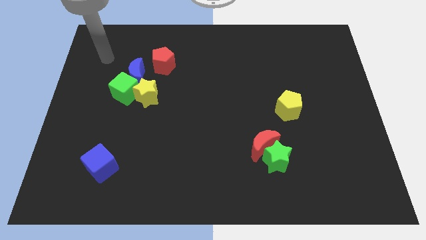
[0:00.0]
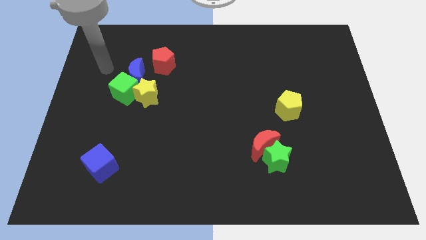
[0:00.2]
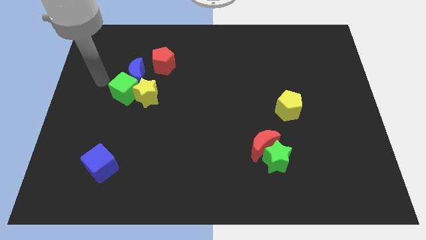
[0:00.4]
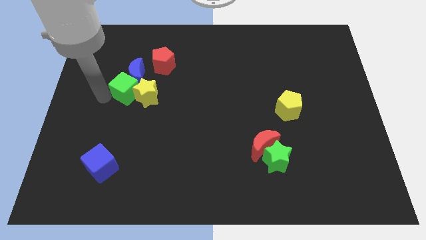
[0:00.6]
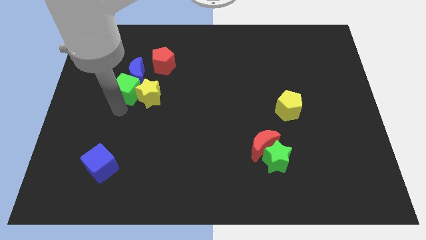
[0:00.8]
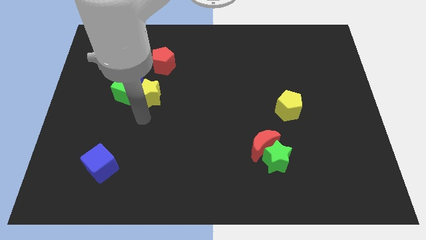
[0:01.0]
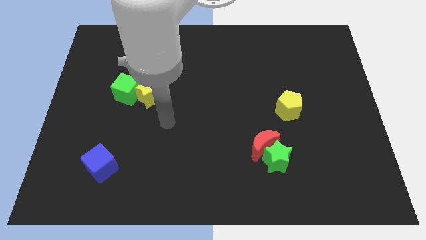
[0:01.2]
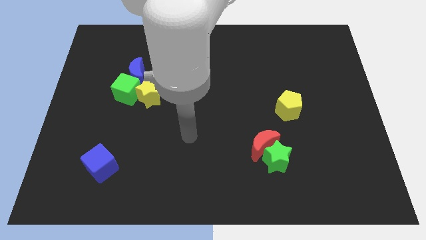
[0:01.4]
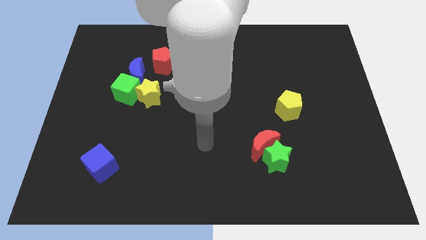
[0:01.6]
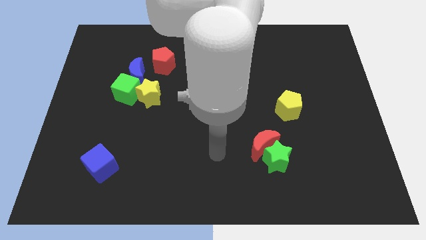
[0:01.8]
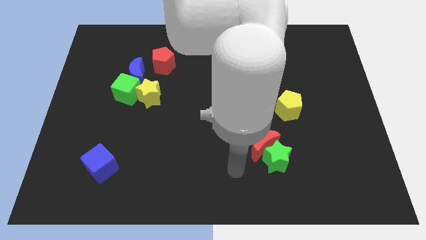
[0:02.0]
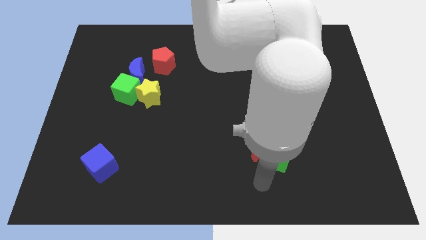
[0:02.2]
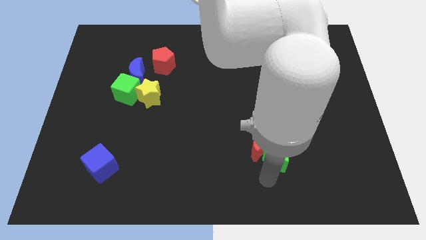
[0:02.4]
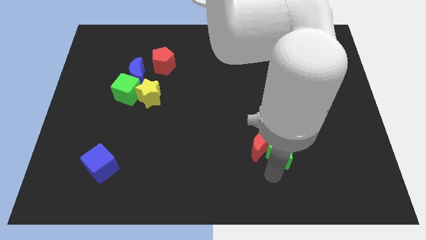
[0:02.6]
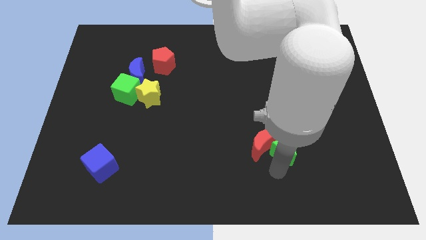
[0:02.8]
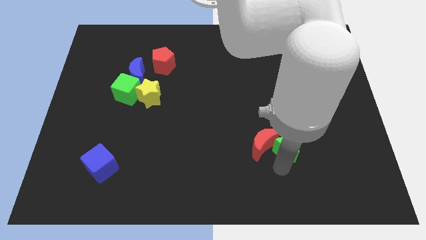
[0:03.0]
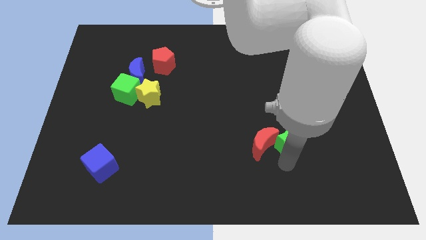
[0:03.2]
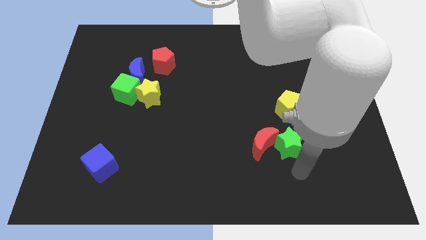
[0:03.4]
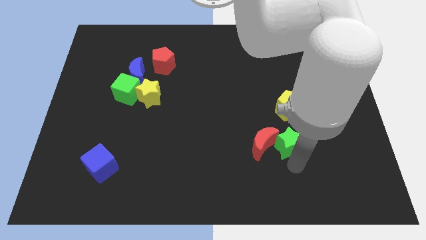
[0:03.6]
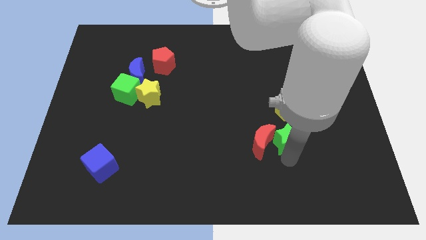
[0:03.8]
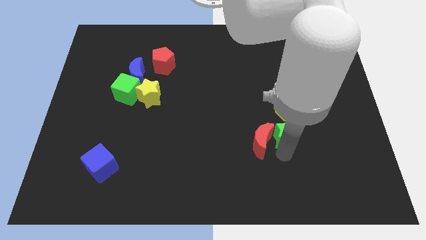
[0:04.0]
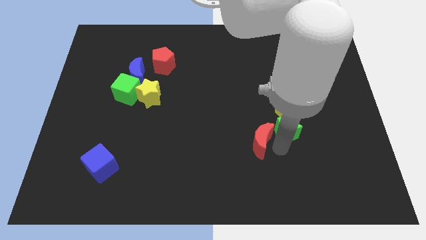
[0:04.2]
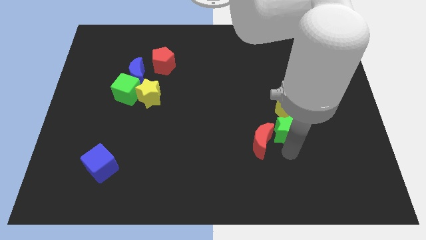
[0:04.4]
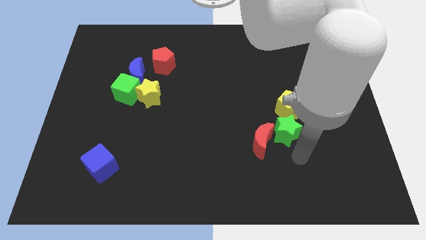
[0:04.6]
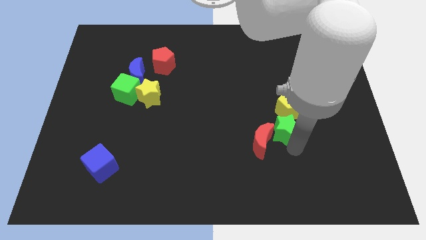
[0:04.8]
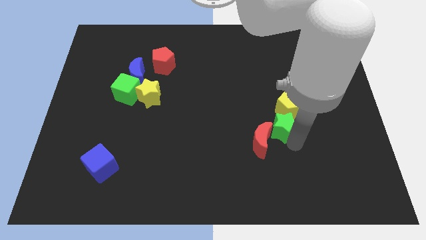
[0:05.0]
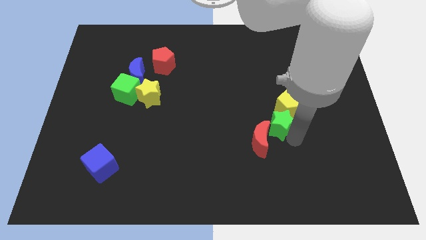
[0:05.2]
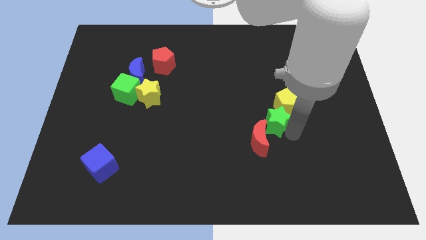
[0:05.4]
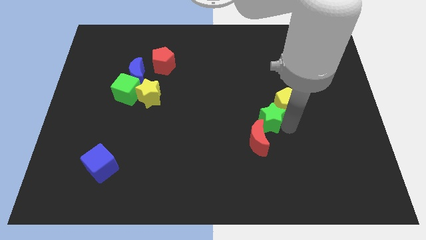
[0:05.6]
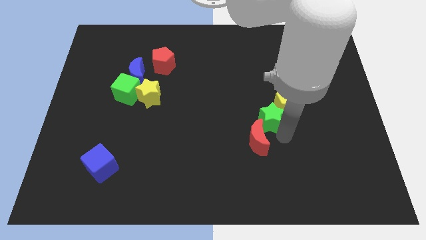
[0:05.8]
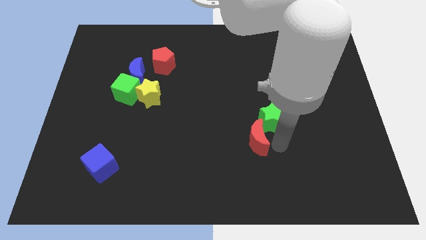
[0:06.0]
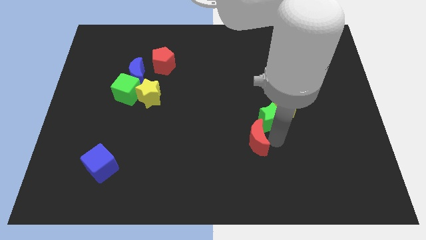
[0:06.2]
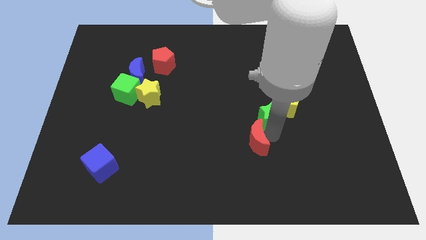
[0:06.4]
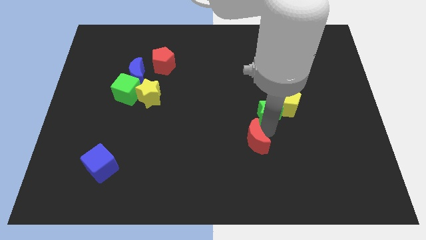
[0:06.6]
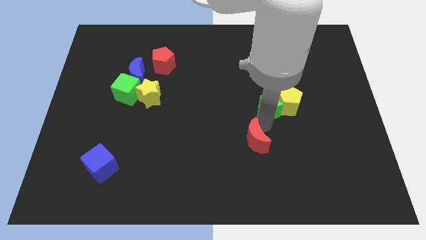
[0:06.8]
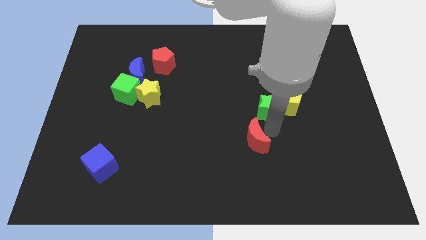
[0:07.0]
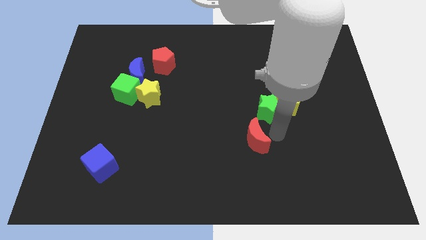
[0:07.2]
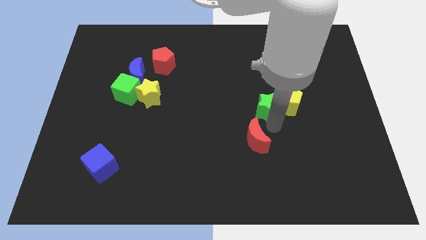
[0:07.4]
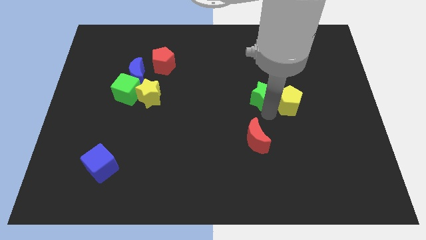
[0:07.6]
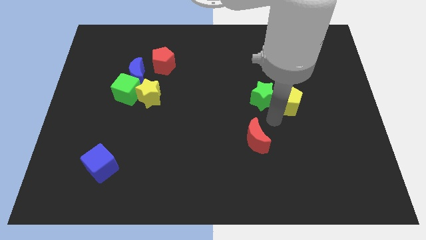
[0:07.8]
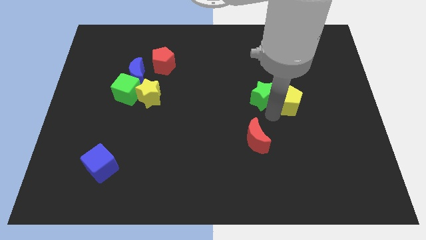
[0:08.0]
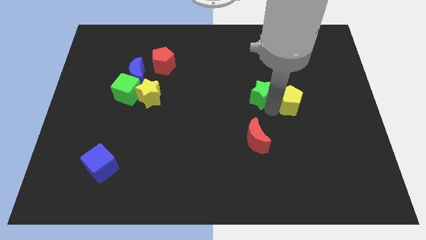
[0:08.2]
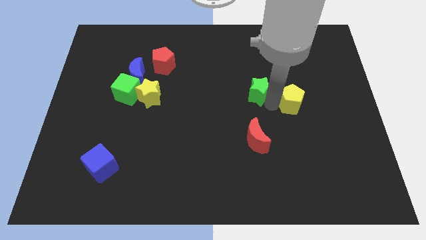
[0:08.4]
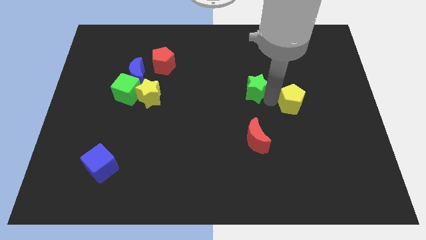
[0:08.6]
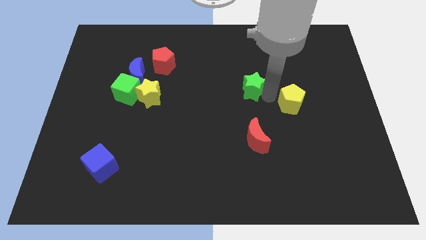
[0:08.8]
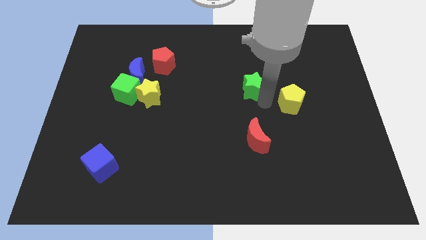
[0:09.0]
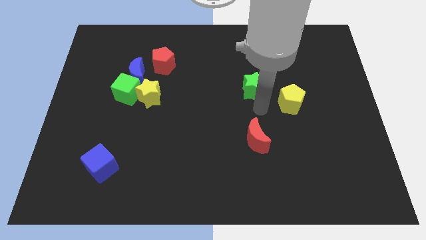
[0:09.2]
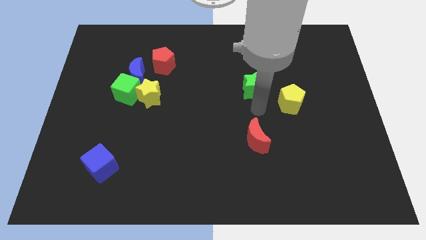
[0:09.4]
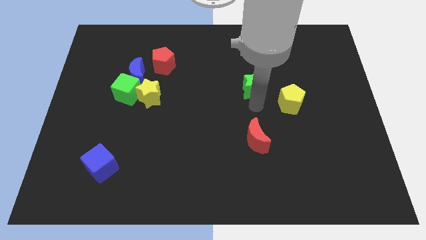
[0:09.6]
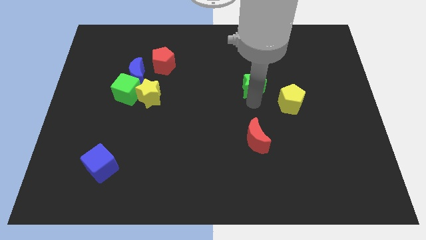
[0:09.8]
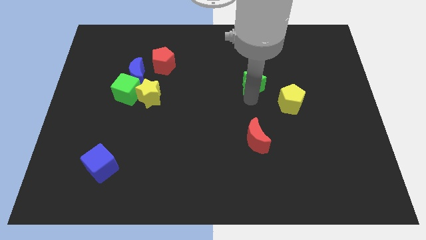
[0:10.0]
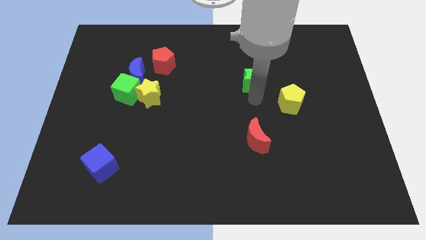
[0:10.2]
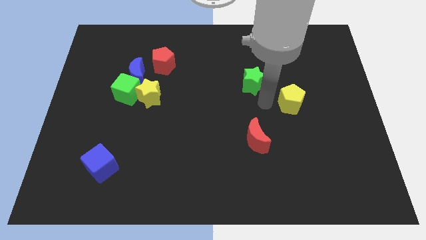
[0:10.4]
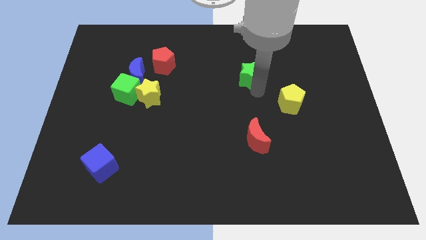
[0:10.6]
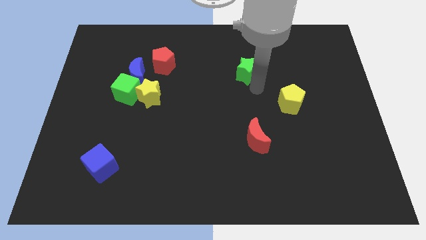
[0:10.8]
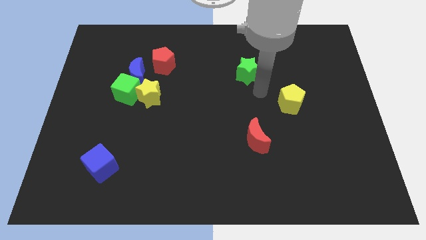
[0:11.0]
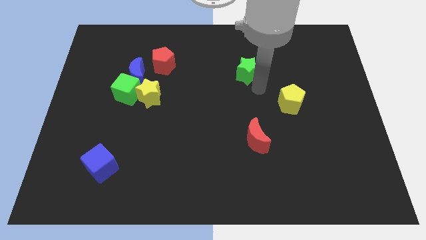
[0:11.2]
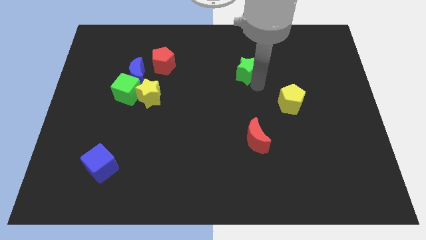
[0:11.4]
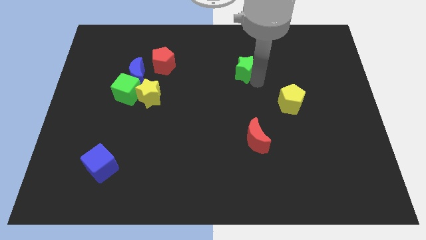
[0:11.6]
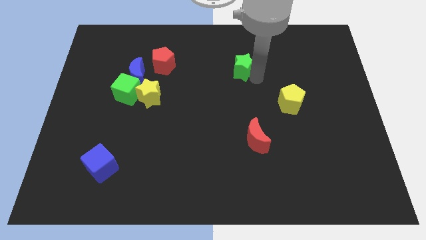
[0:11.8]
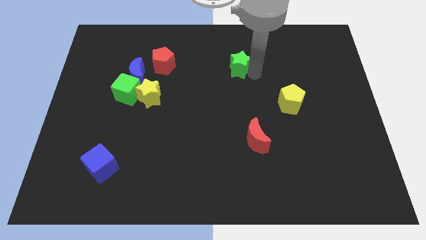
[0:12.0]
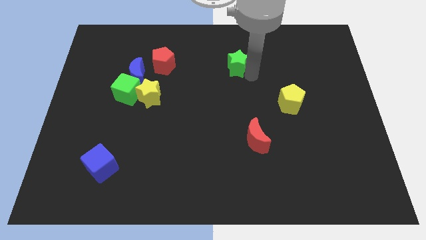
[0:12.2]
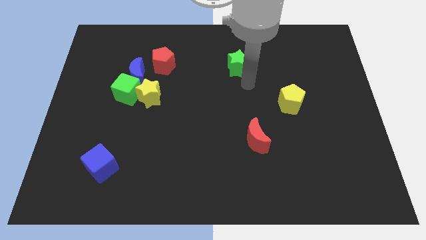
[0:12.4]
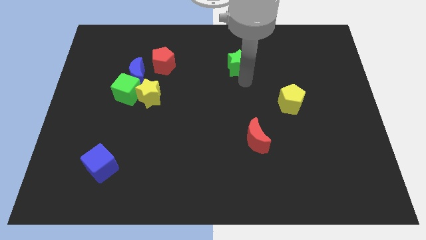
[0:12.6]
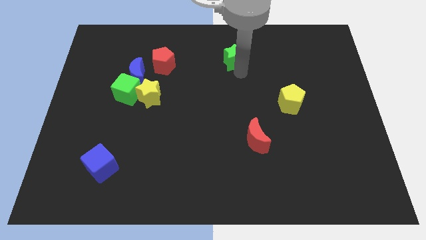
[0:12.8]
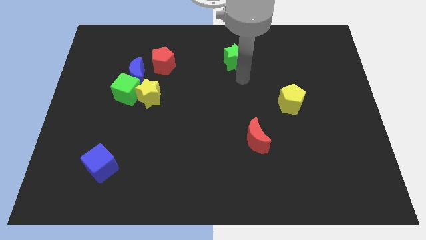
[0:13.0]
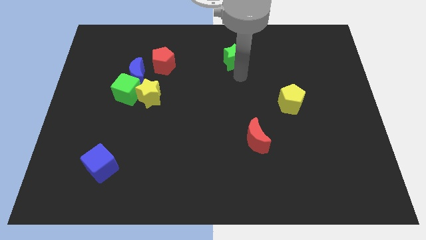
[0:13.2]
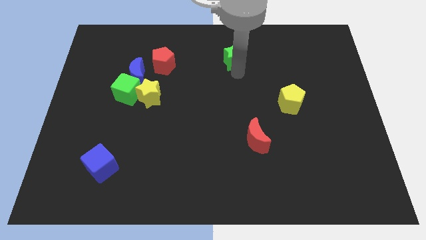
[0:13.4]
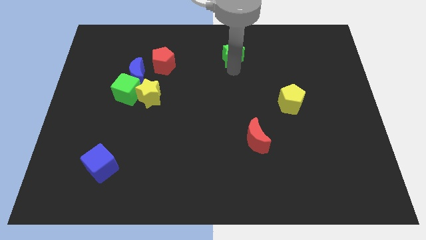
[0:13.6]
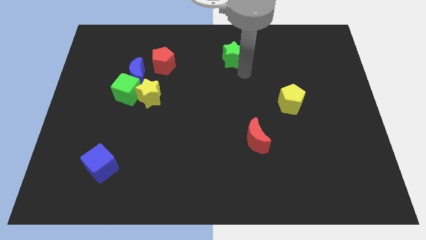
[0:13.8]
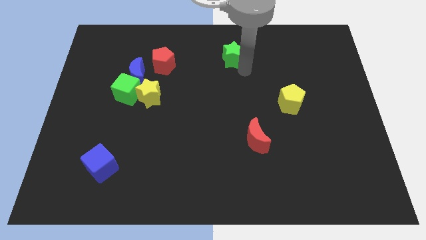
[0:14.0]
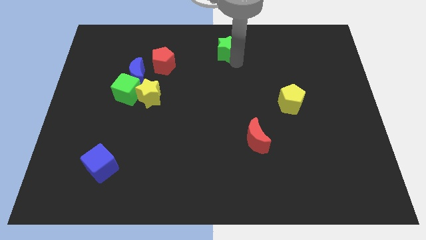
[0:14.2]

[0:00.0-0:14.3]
slide the green star to the towards your base

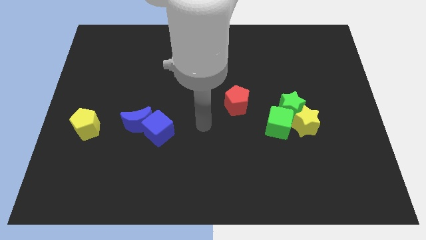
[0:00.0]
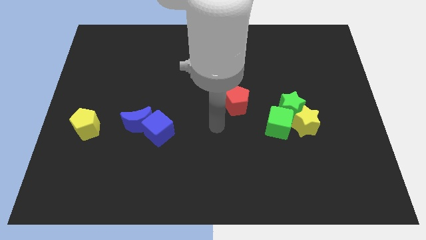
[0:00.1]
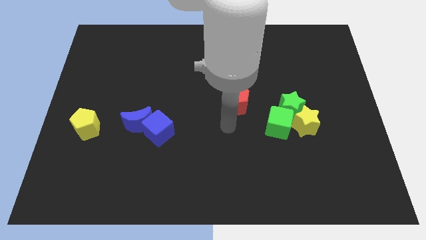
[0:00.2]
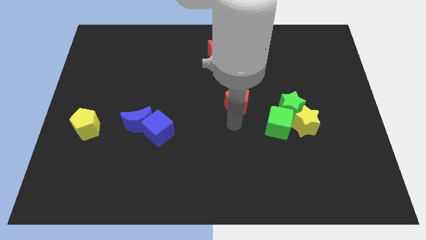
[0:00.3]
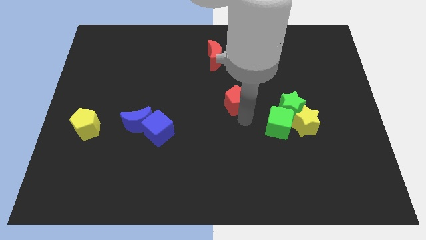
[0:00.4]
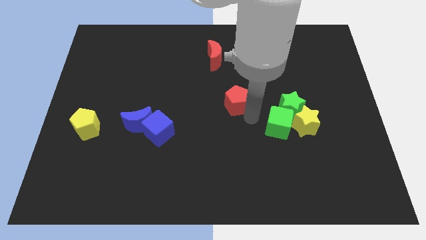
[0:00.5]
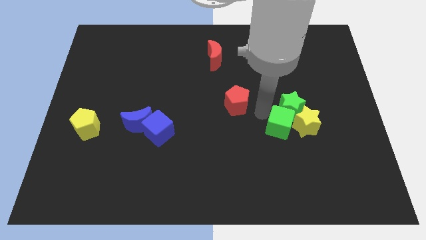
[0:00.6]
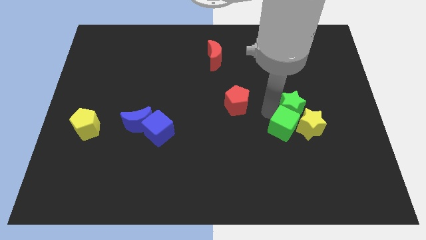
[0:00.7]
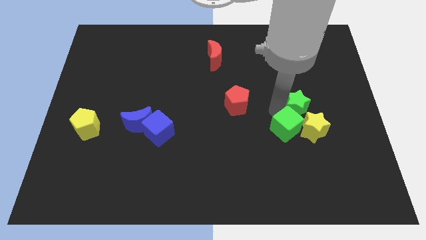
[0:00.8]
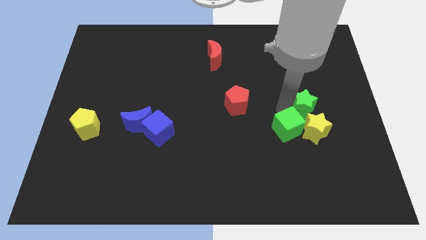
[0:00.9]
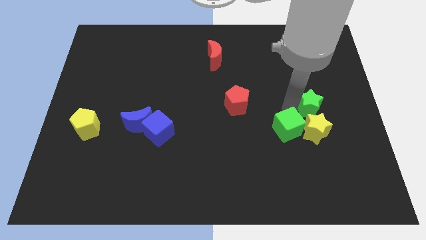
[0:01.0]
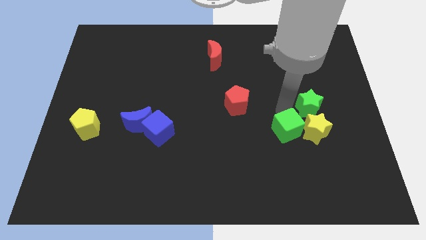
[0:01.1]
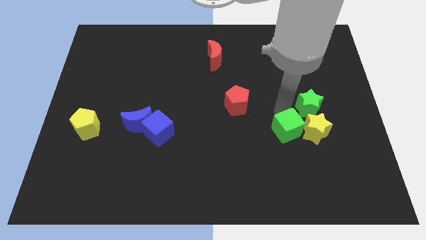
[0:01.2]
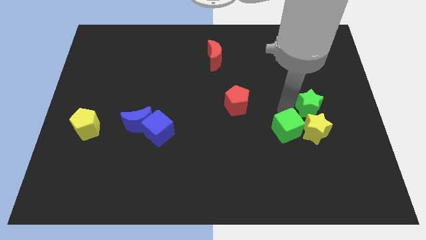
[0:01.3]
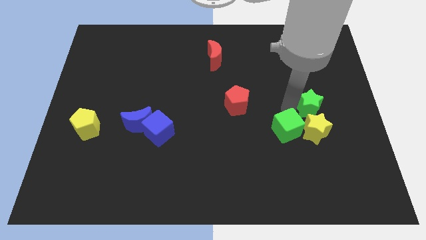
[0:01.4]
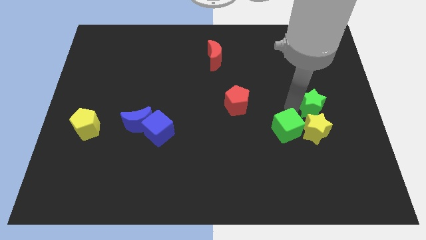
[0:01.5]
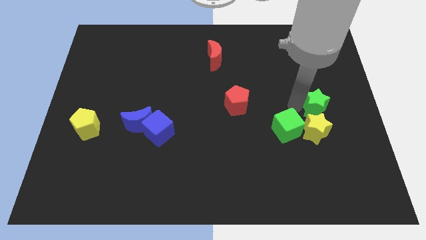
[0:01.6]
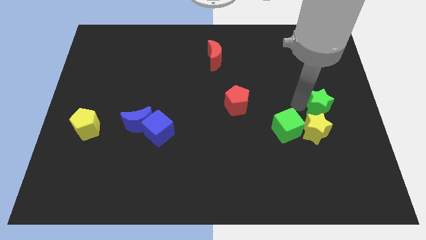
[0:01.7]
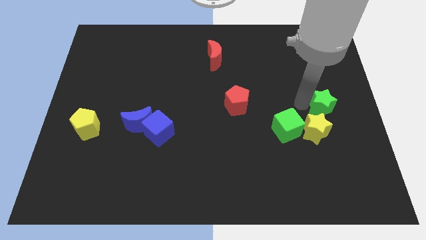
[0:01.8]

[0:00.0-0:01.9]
push the green star to the right side
